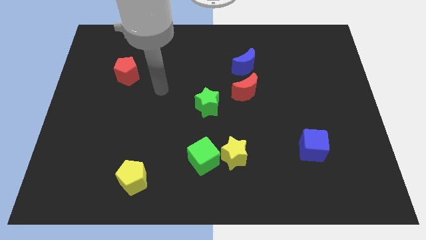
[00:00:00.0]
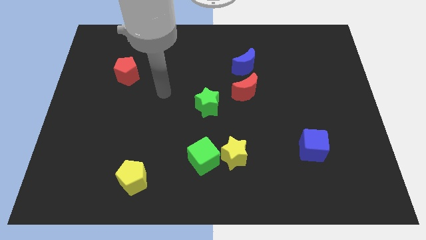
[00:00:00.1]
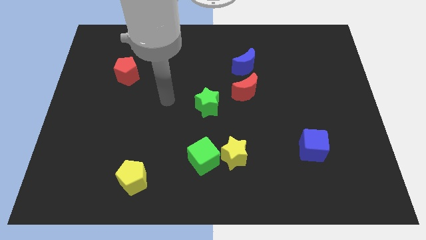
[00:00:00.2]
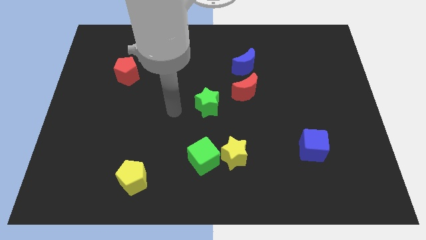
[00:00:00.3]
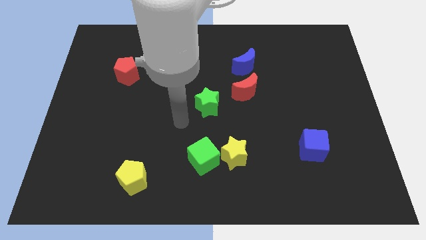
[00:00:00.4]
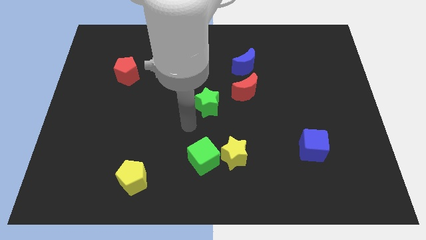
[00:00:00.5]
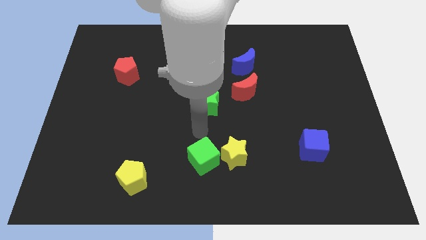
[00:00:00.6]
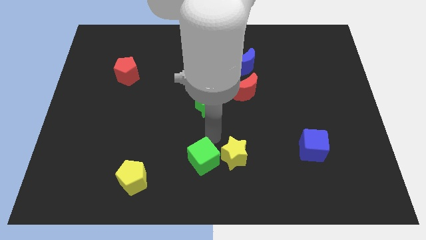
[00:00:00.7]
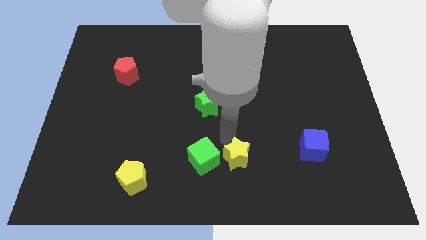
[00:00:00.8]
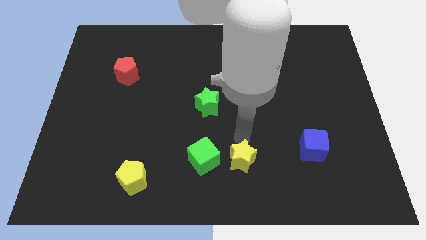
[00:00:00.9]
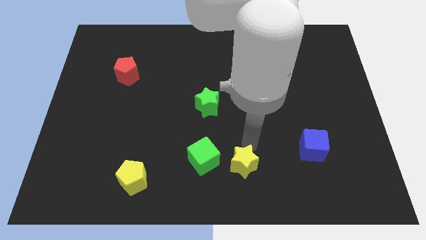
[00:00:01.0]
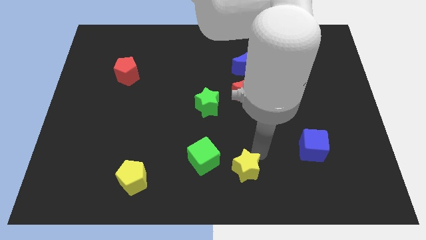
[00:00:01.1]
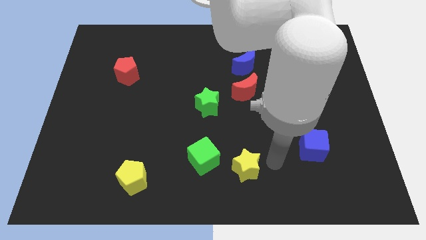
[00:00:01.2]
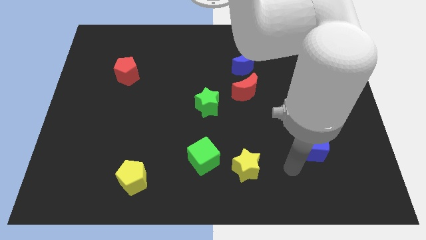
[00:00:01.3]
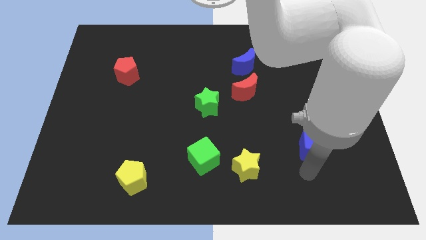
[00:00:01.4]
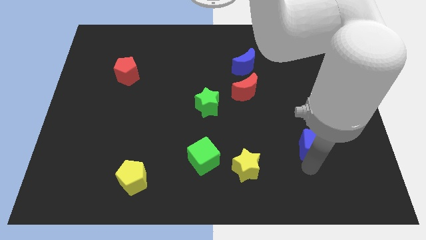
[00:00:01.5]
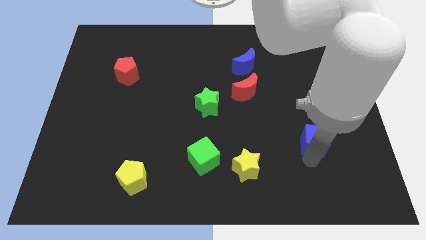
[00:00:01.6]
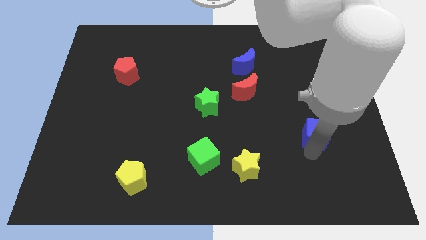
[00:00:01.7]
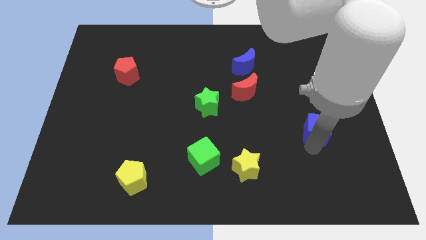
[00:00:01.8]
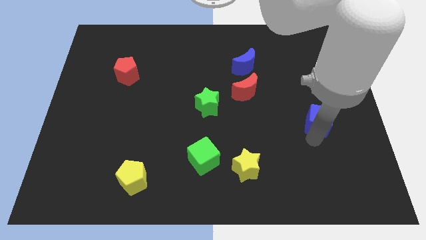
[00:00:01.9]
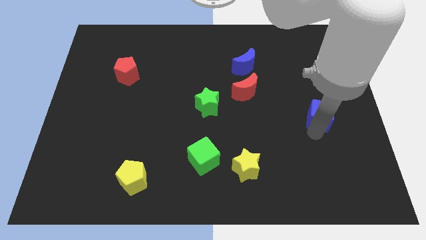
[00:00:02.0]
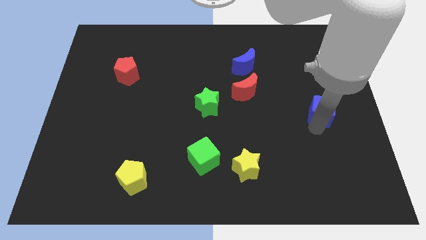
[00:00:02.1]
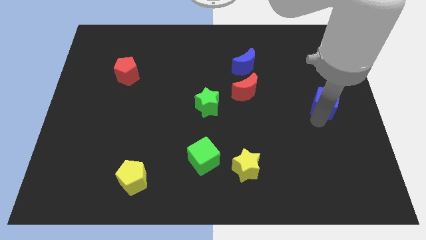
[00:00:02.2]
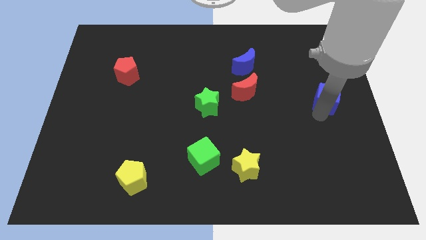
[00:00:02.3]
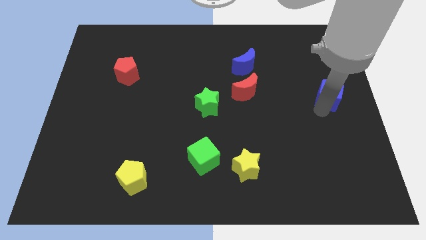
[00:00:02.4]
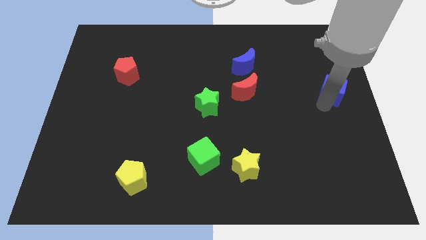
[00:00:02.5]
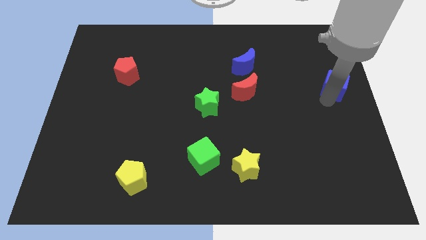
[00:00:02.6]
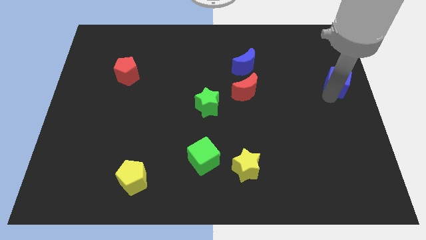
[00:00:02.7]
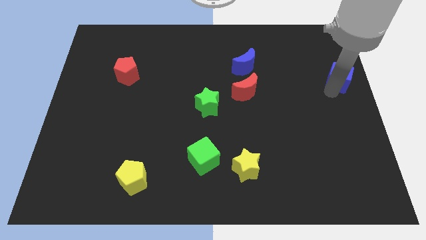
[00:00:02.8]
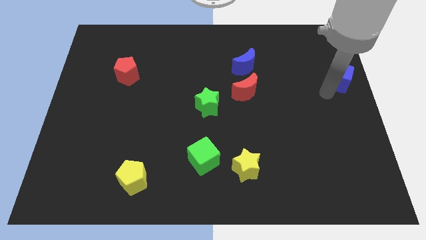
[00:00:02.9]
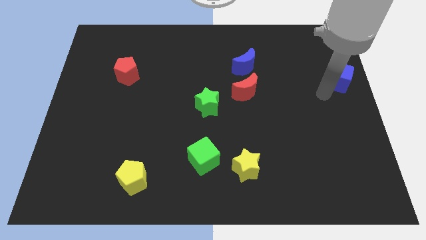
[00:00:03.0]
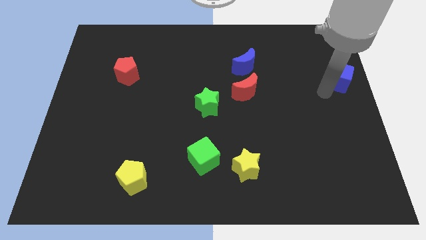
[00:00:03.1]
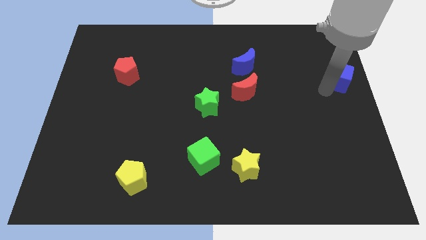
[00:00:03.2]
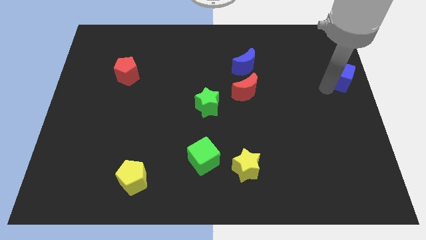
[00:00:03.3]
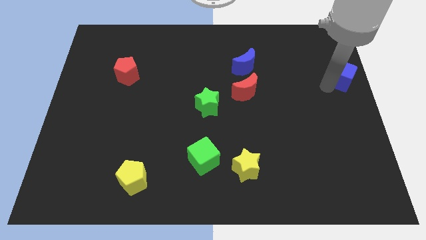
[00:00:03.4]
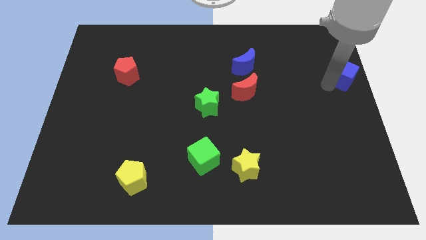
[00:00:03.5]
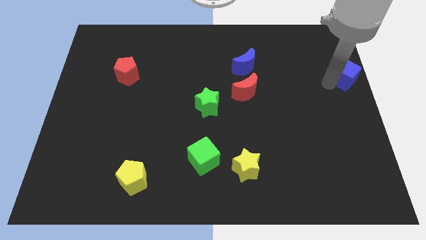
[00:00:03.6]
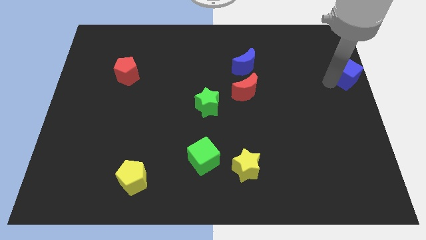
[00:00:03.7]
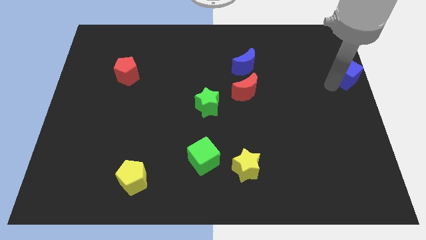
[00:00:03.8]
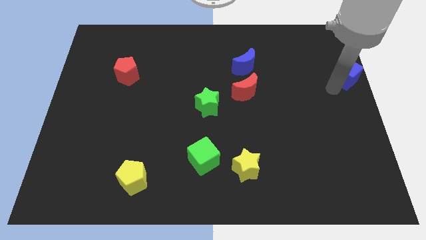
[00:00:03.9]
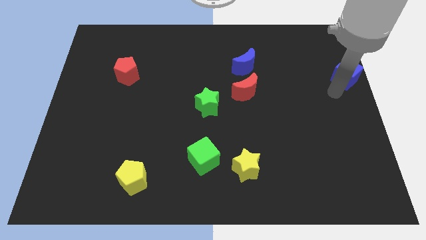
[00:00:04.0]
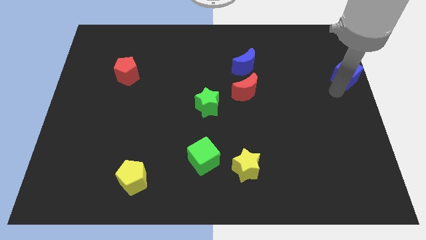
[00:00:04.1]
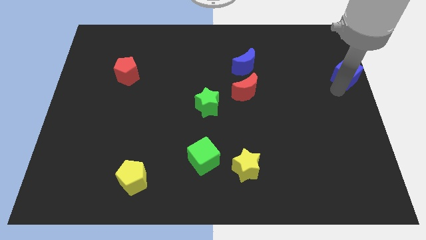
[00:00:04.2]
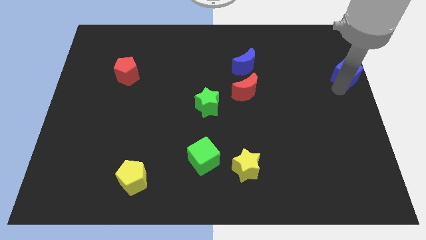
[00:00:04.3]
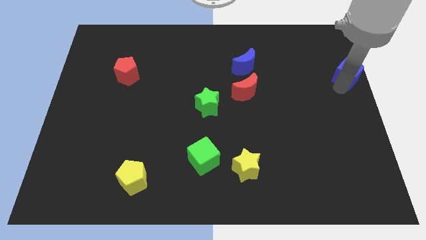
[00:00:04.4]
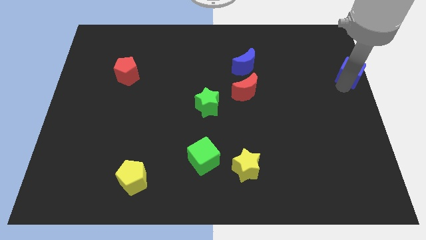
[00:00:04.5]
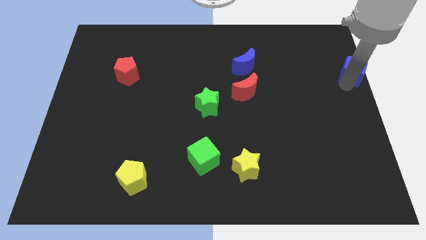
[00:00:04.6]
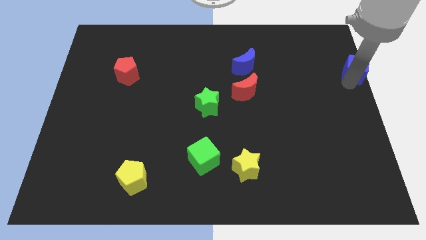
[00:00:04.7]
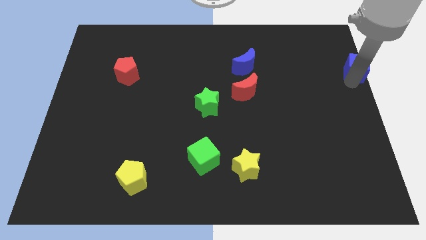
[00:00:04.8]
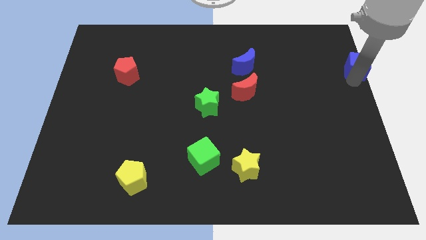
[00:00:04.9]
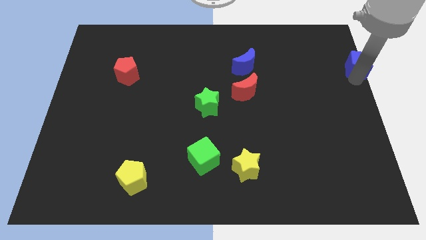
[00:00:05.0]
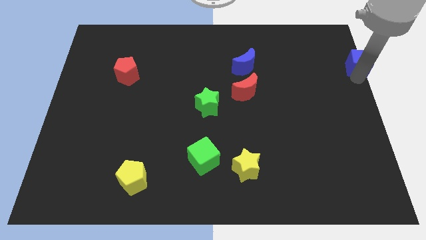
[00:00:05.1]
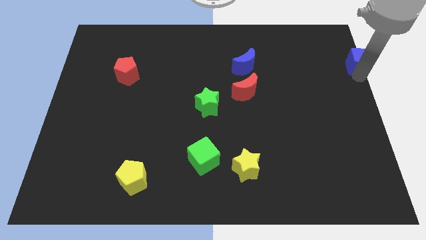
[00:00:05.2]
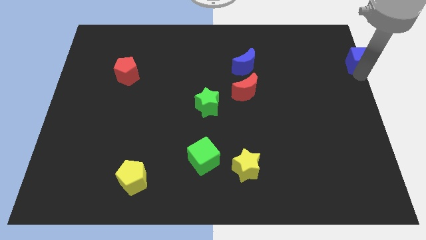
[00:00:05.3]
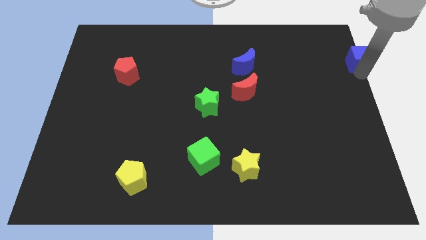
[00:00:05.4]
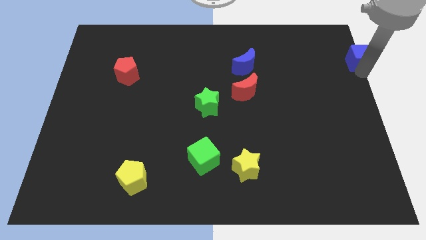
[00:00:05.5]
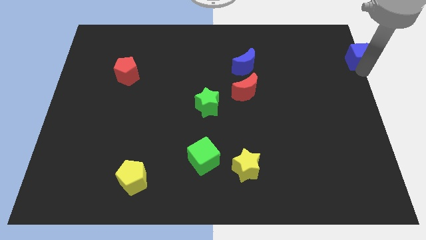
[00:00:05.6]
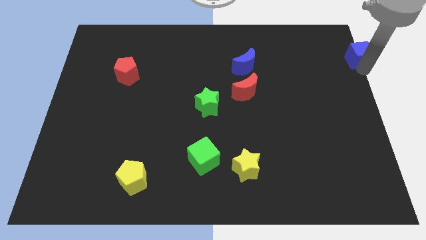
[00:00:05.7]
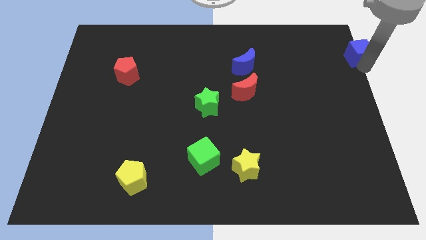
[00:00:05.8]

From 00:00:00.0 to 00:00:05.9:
slide the blue cube to the upper right corner

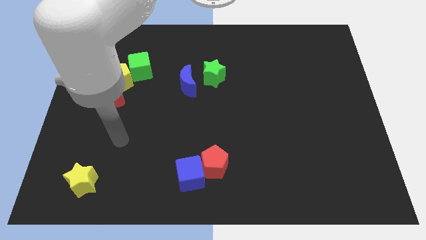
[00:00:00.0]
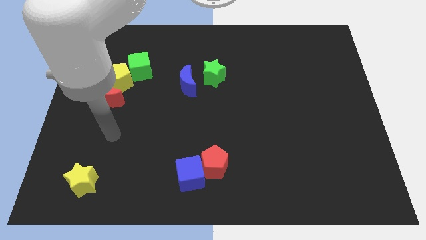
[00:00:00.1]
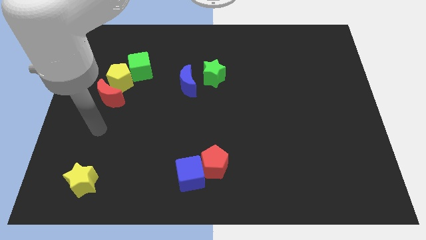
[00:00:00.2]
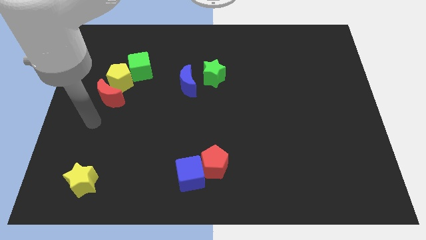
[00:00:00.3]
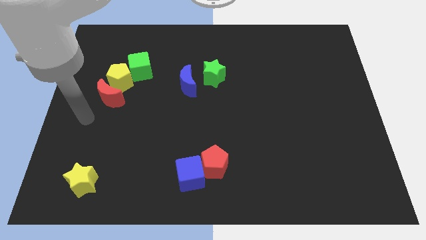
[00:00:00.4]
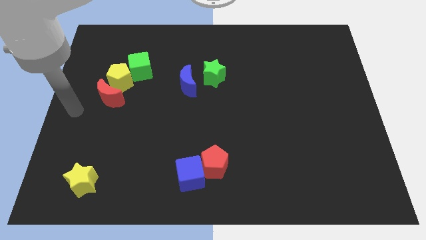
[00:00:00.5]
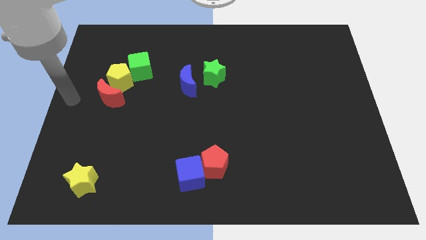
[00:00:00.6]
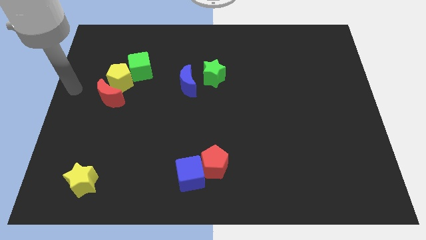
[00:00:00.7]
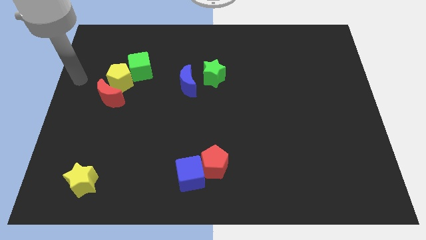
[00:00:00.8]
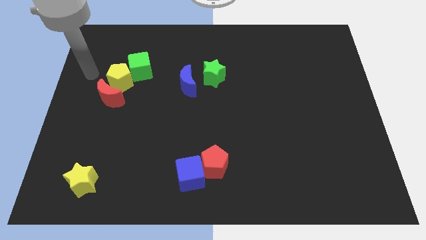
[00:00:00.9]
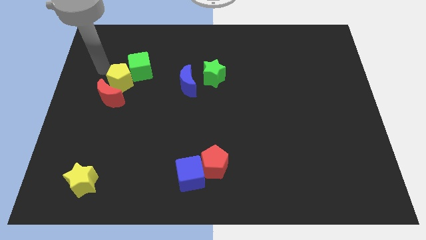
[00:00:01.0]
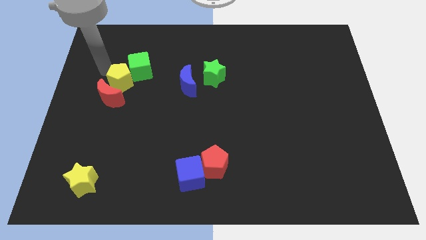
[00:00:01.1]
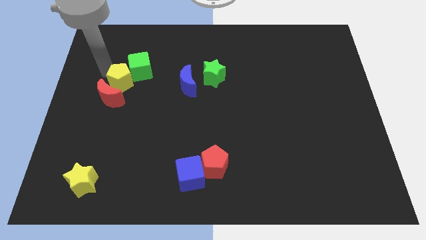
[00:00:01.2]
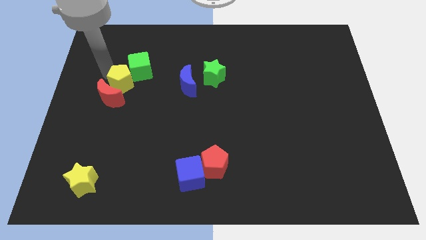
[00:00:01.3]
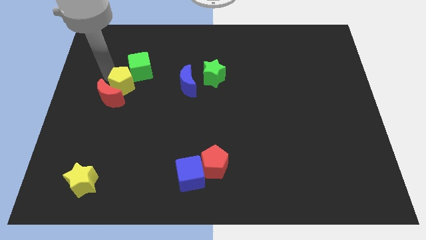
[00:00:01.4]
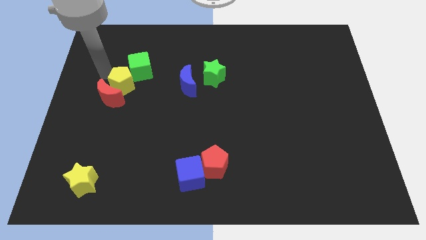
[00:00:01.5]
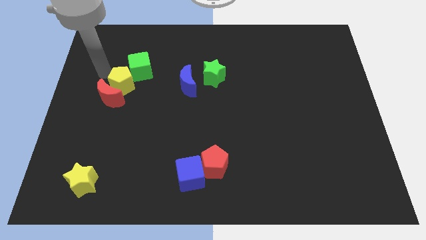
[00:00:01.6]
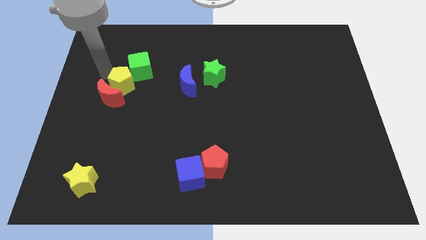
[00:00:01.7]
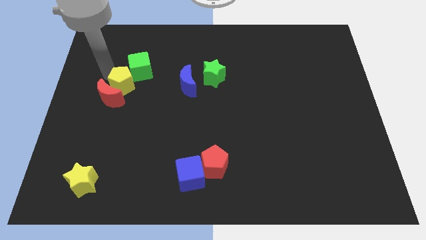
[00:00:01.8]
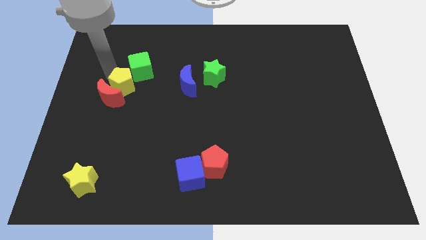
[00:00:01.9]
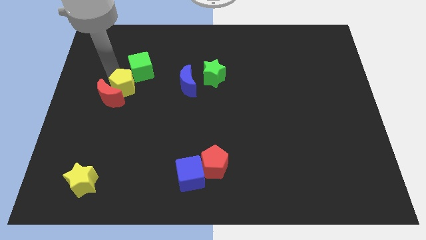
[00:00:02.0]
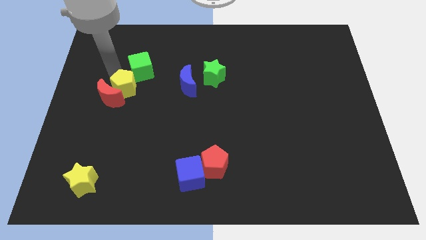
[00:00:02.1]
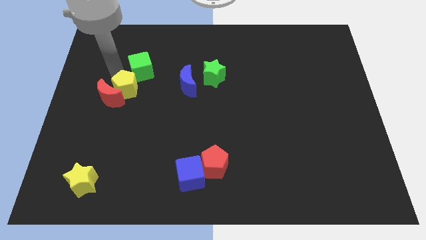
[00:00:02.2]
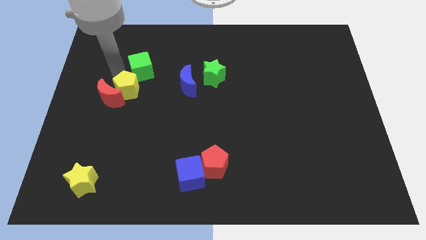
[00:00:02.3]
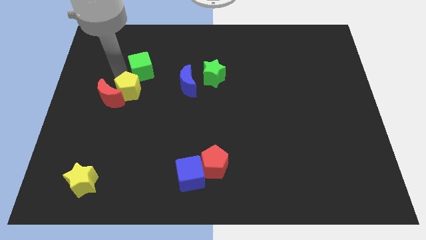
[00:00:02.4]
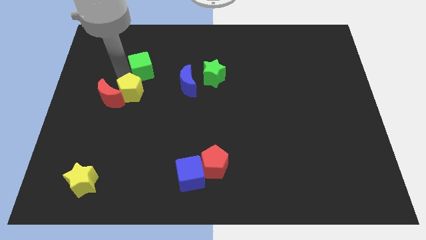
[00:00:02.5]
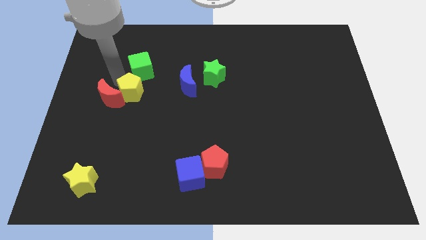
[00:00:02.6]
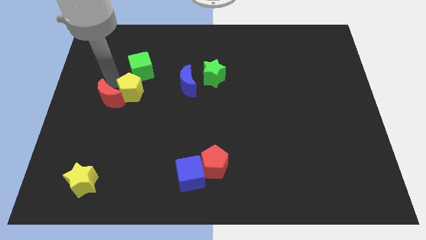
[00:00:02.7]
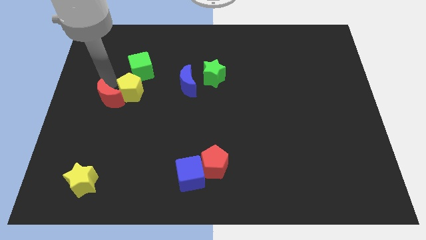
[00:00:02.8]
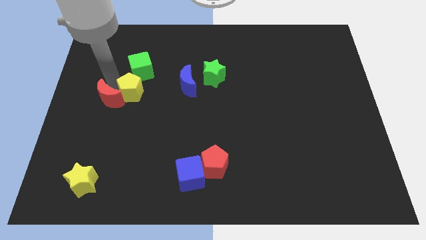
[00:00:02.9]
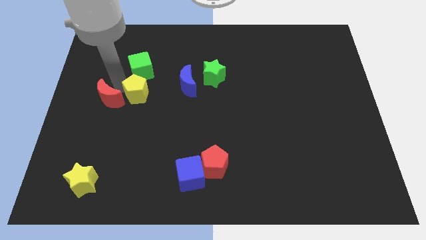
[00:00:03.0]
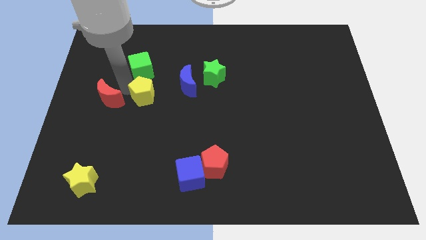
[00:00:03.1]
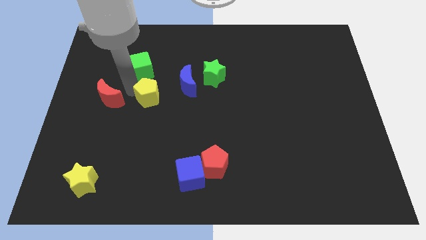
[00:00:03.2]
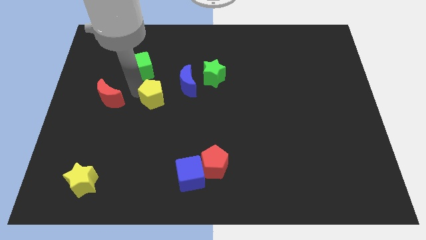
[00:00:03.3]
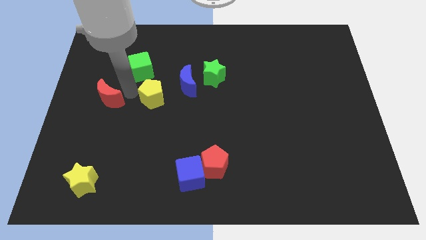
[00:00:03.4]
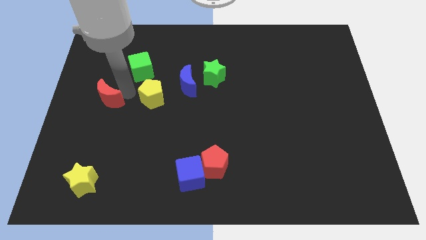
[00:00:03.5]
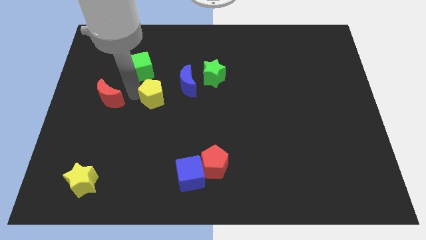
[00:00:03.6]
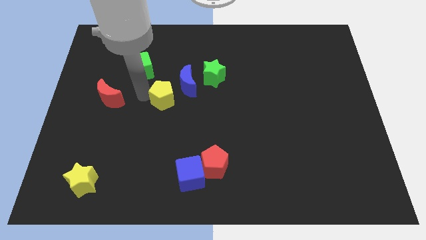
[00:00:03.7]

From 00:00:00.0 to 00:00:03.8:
put the yellow pentagon to the middle
